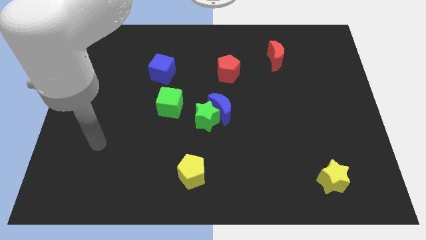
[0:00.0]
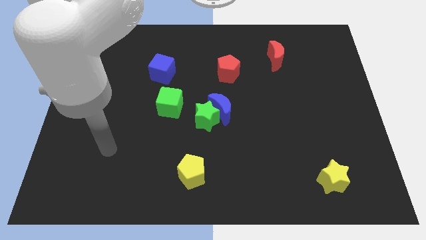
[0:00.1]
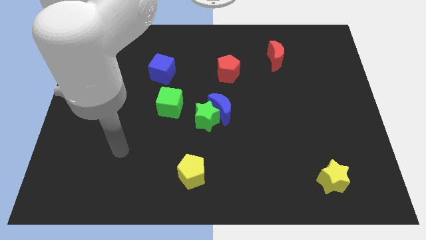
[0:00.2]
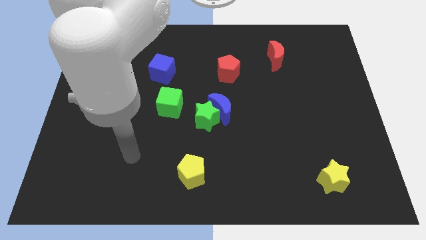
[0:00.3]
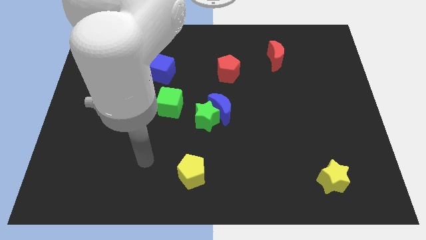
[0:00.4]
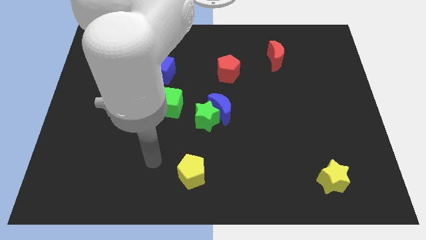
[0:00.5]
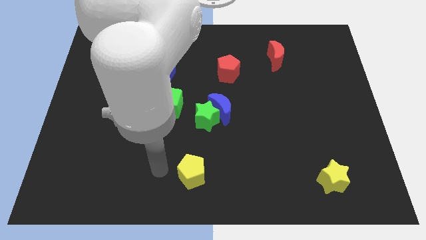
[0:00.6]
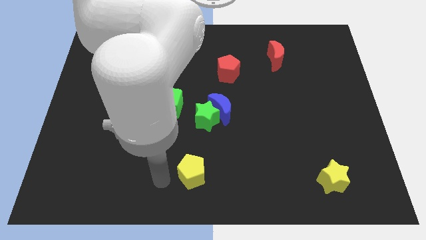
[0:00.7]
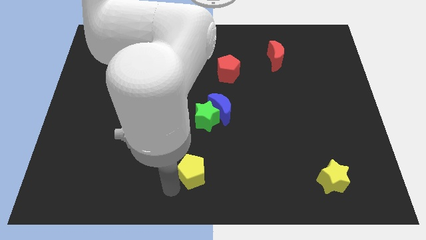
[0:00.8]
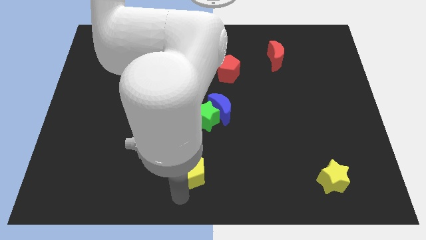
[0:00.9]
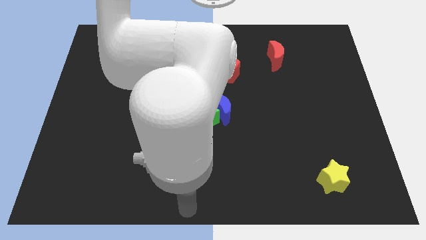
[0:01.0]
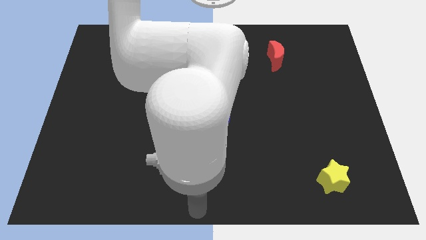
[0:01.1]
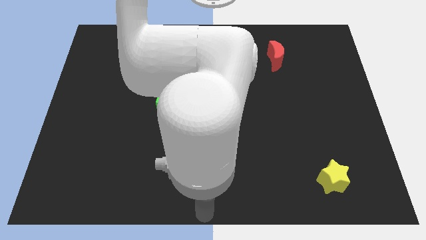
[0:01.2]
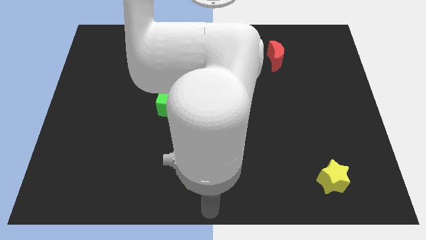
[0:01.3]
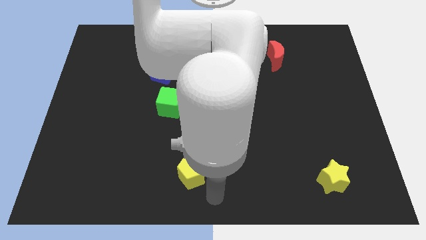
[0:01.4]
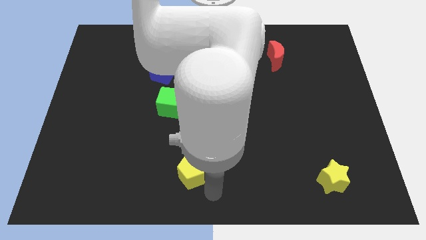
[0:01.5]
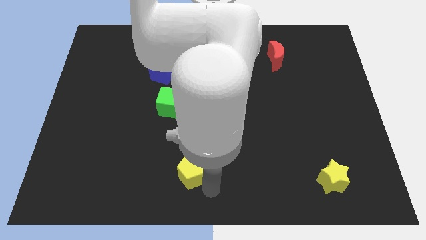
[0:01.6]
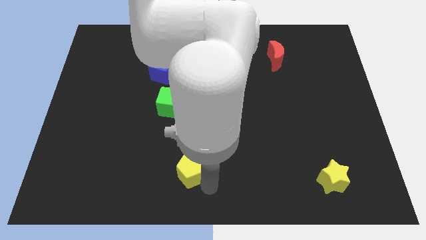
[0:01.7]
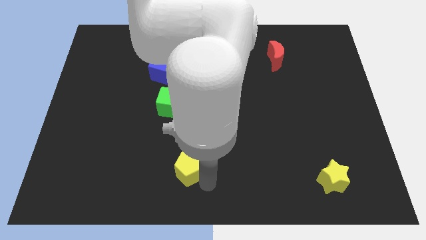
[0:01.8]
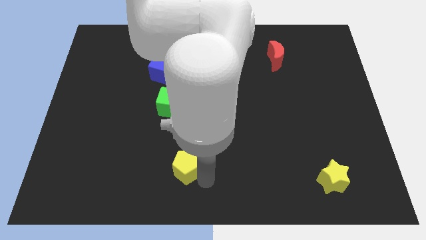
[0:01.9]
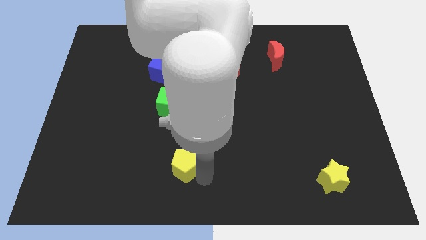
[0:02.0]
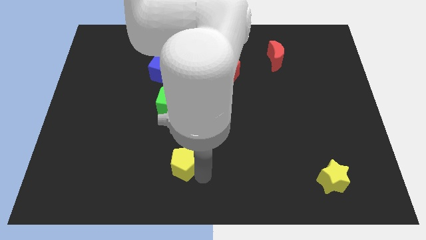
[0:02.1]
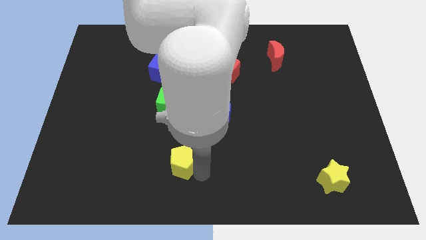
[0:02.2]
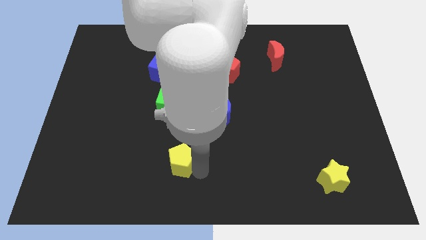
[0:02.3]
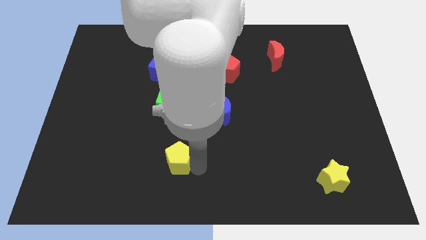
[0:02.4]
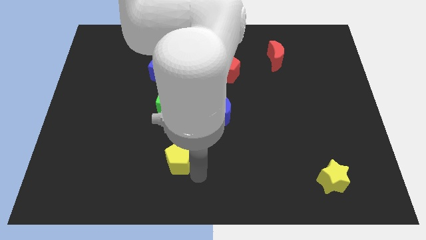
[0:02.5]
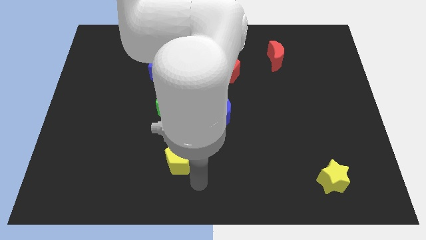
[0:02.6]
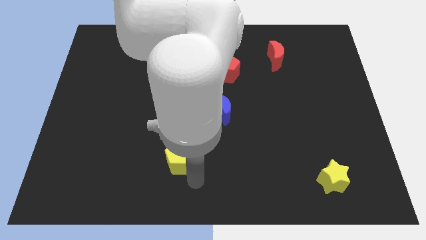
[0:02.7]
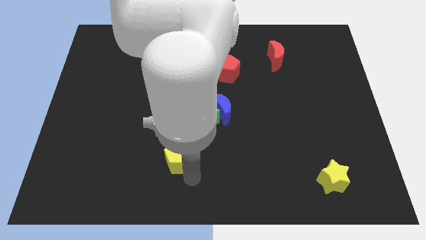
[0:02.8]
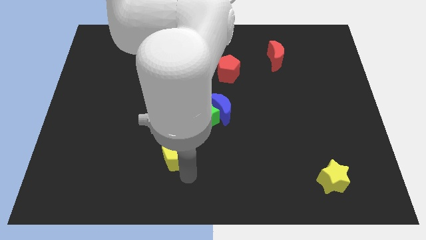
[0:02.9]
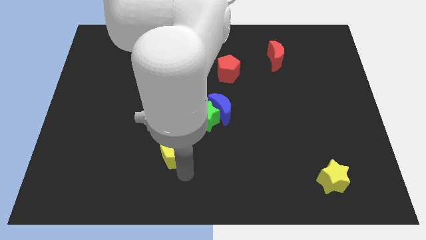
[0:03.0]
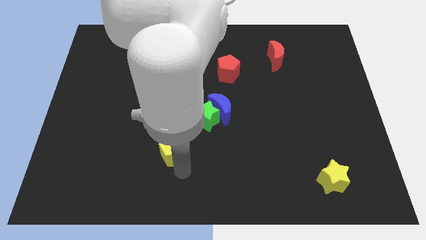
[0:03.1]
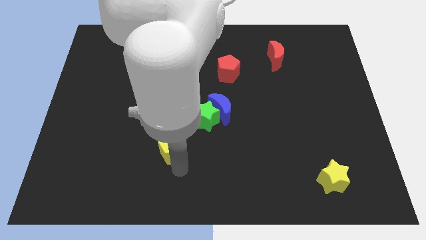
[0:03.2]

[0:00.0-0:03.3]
slightly push the yellow pentagon upwards and to the left

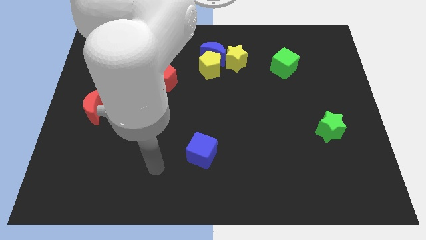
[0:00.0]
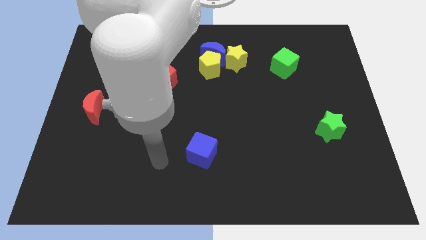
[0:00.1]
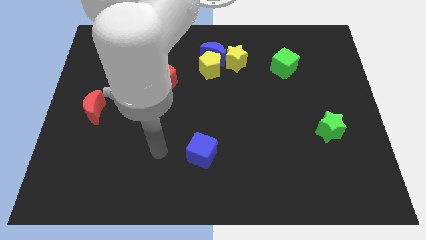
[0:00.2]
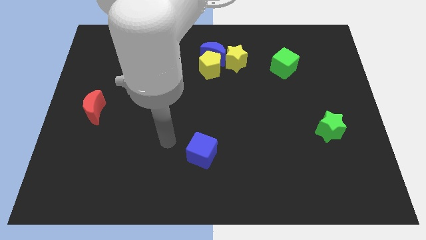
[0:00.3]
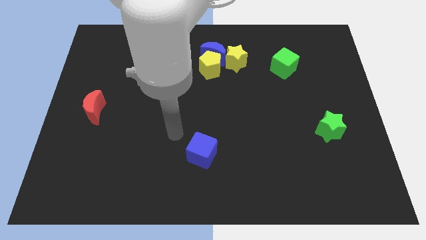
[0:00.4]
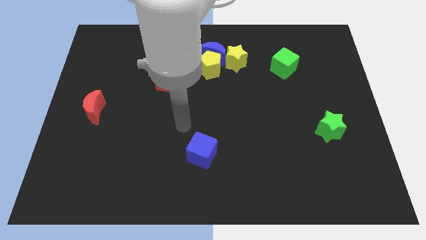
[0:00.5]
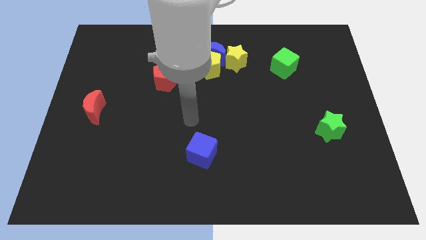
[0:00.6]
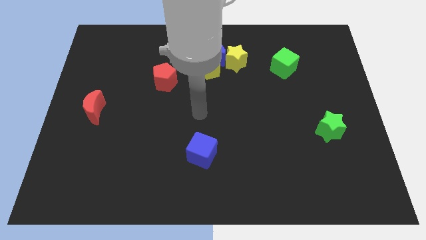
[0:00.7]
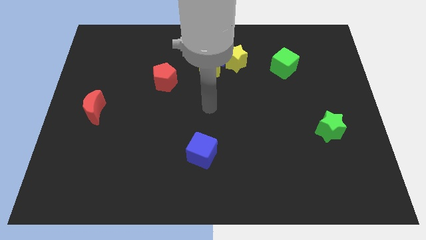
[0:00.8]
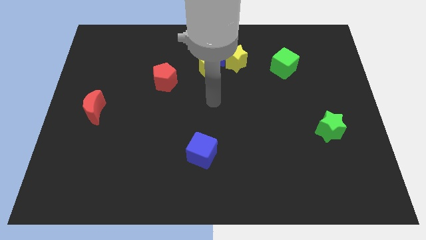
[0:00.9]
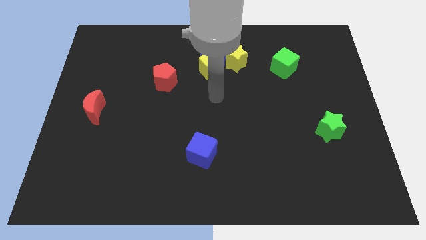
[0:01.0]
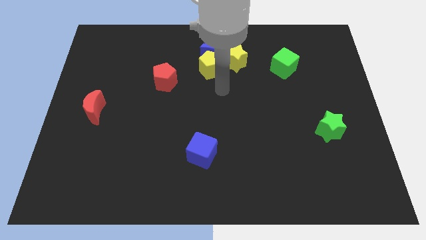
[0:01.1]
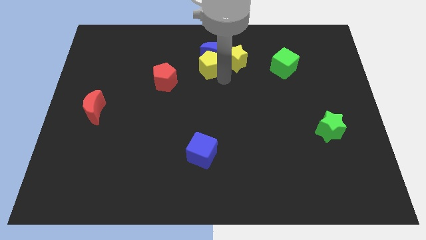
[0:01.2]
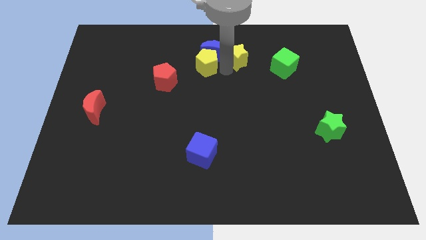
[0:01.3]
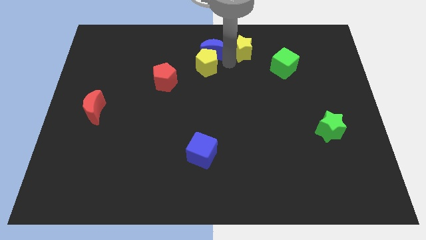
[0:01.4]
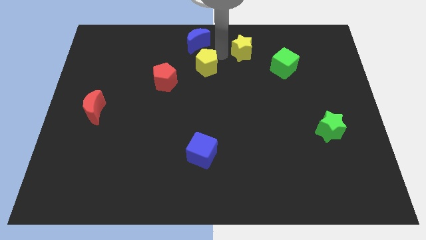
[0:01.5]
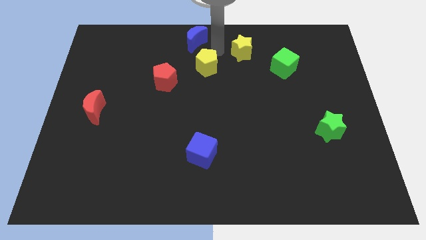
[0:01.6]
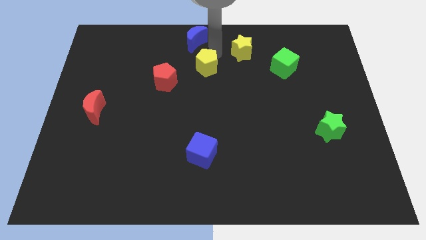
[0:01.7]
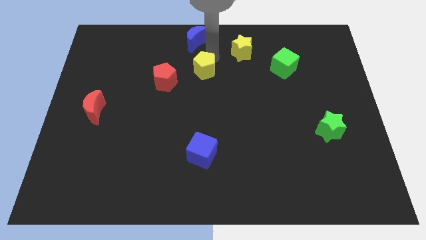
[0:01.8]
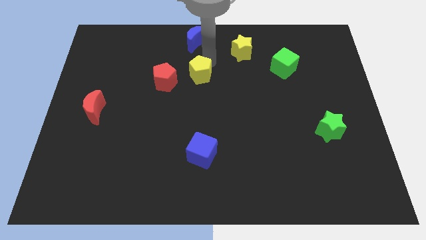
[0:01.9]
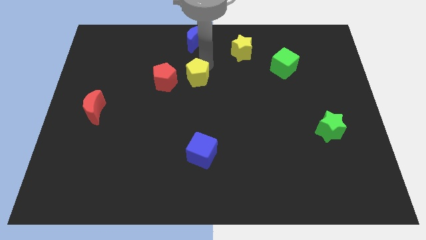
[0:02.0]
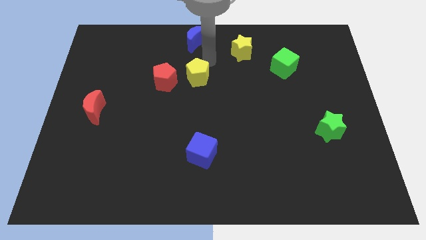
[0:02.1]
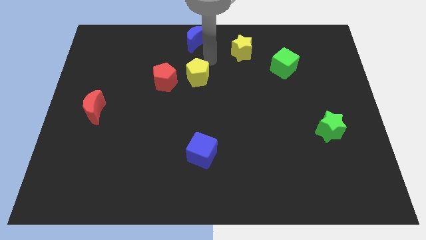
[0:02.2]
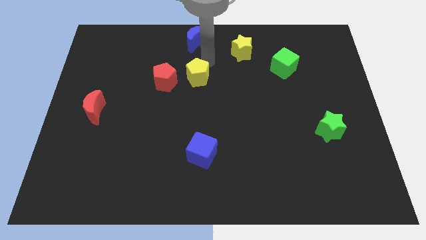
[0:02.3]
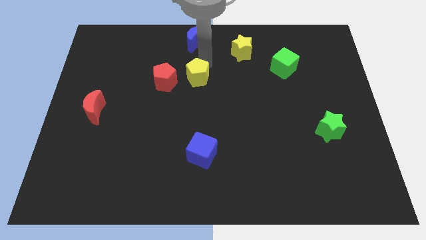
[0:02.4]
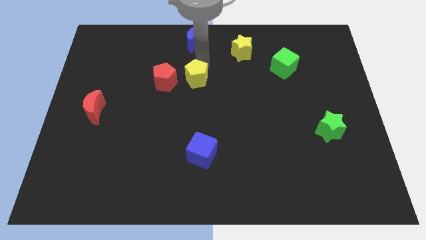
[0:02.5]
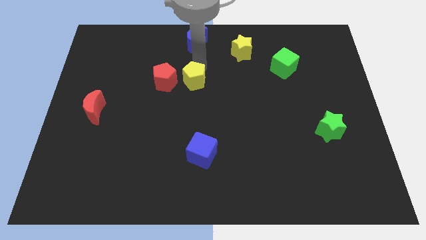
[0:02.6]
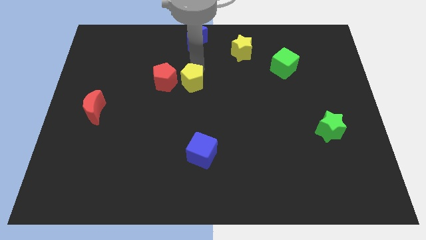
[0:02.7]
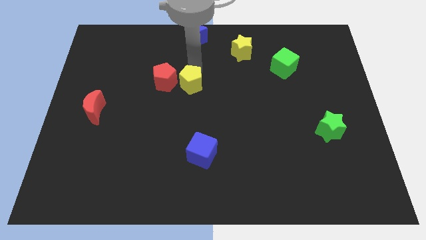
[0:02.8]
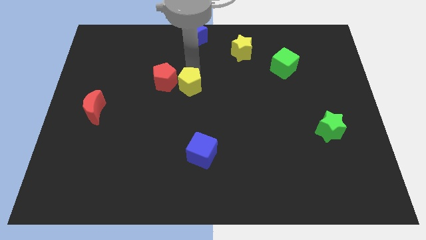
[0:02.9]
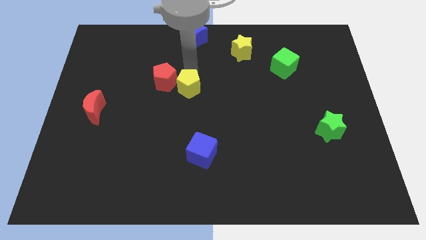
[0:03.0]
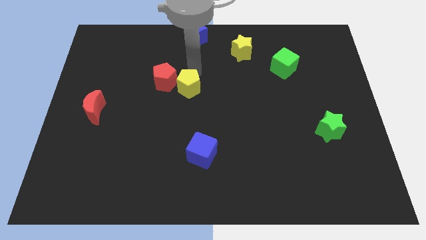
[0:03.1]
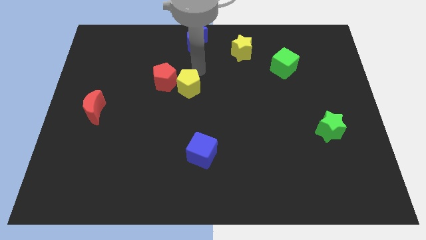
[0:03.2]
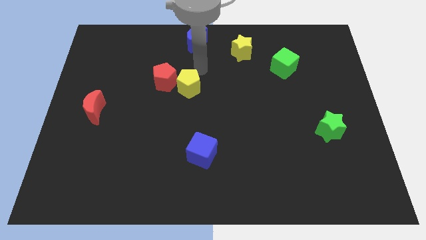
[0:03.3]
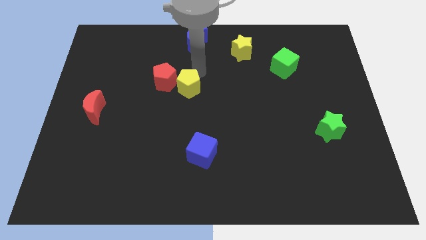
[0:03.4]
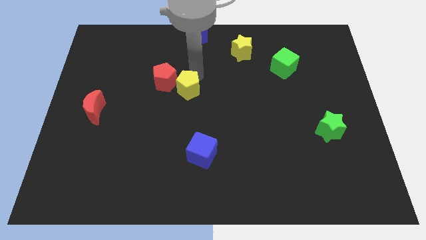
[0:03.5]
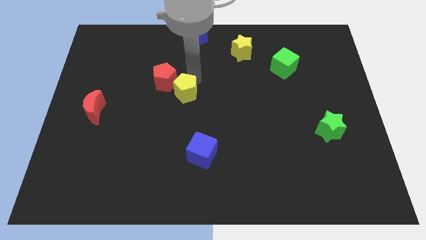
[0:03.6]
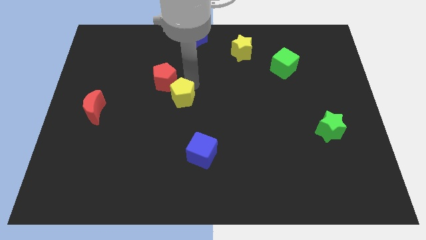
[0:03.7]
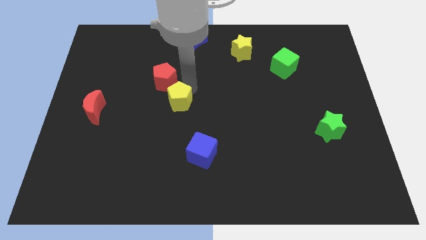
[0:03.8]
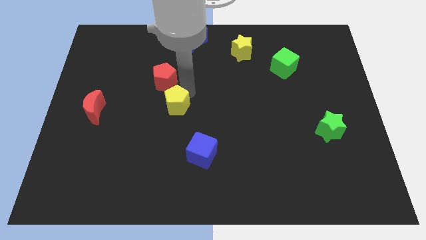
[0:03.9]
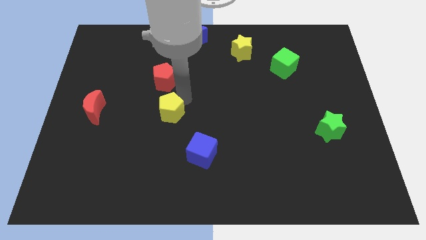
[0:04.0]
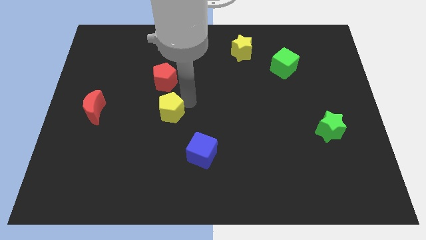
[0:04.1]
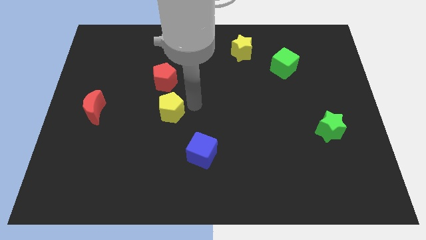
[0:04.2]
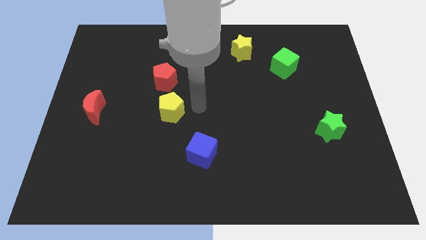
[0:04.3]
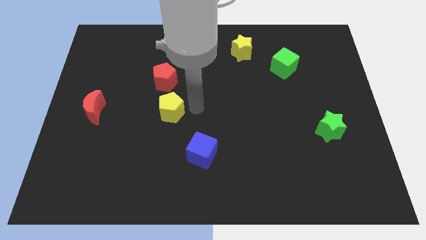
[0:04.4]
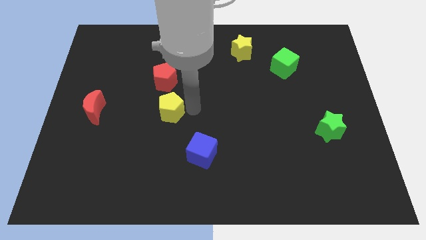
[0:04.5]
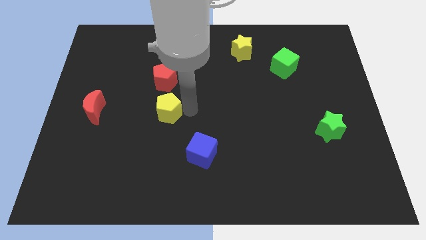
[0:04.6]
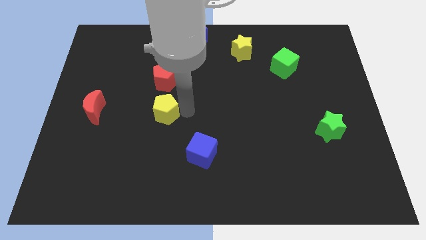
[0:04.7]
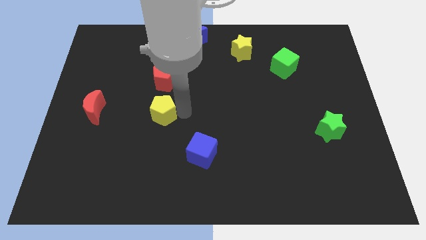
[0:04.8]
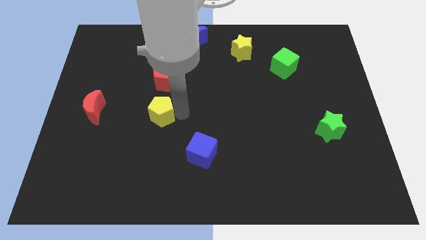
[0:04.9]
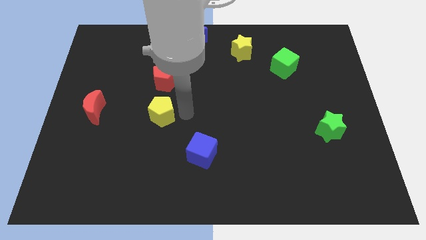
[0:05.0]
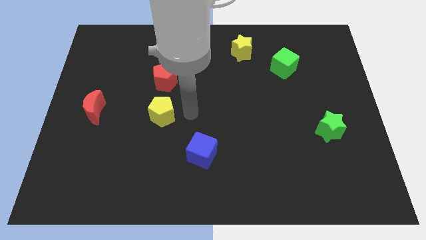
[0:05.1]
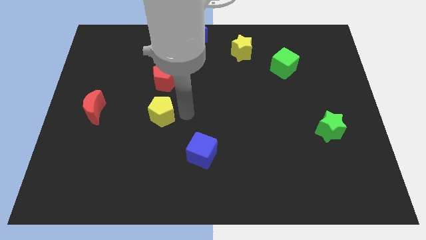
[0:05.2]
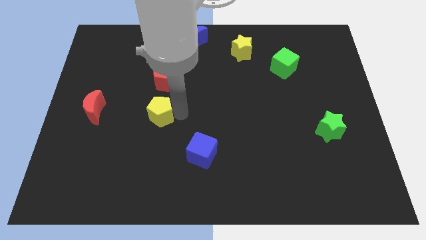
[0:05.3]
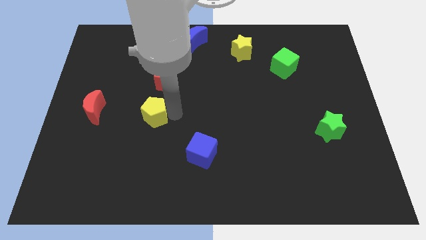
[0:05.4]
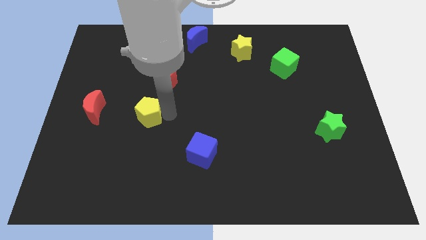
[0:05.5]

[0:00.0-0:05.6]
move the yellow pentagon diagonally down and to the left
